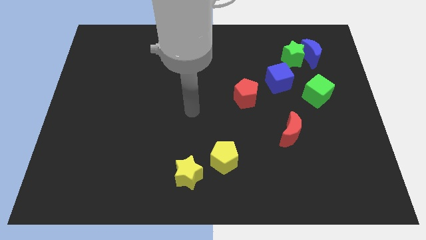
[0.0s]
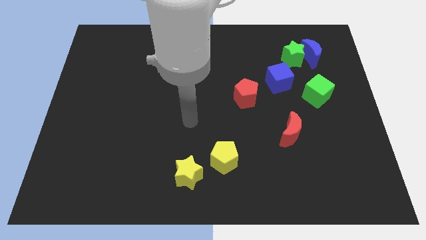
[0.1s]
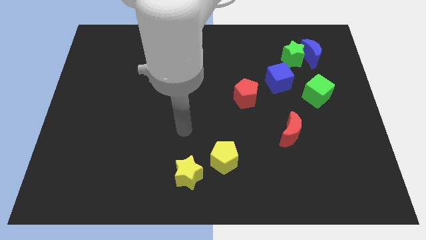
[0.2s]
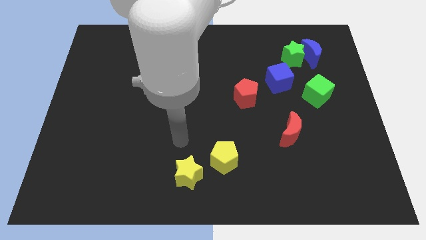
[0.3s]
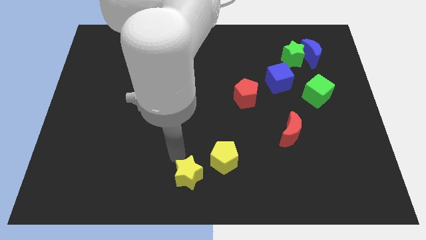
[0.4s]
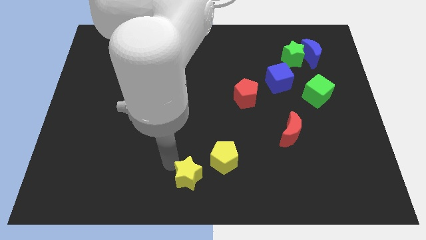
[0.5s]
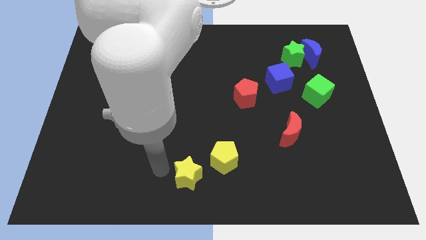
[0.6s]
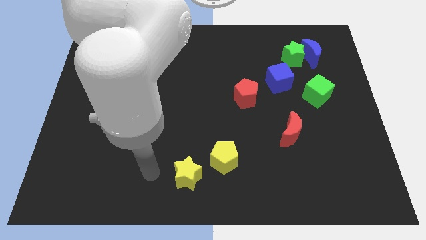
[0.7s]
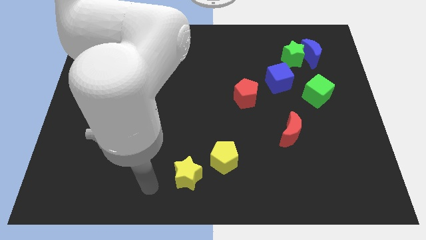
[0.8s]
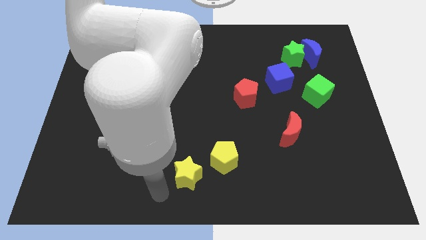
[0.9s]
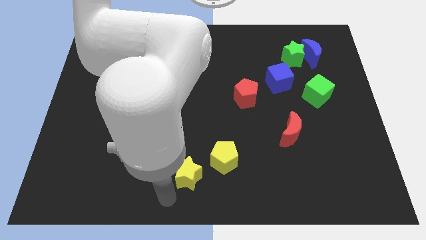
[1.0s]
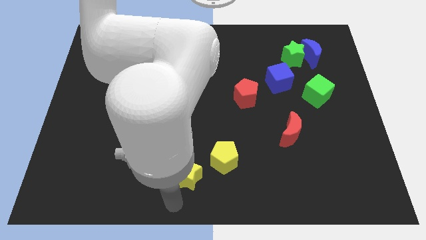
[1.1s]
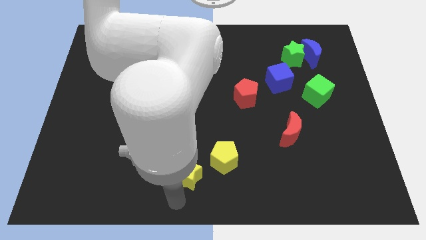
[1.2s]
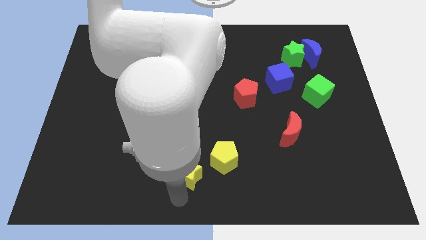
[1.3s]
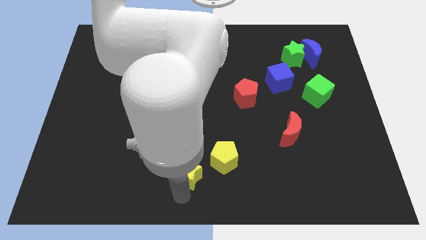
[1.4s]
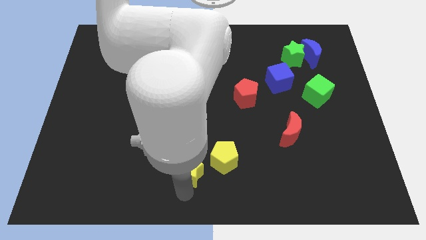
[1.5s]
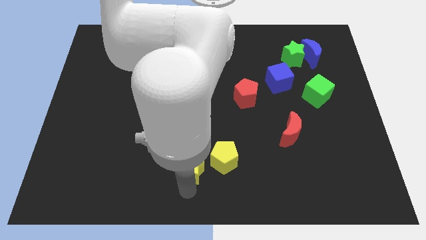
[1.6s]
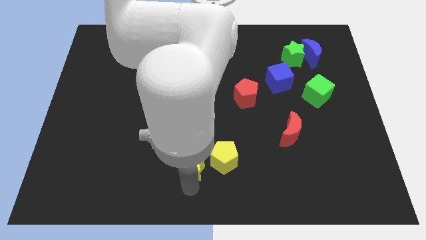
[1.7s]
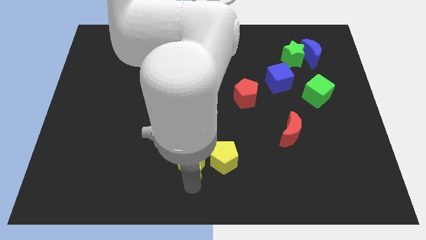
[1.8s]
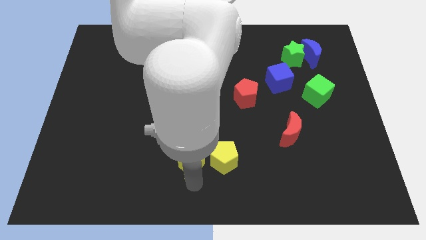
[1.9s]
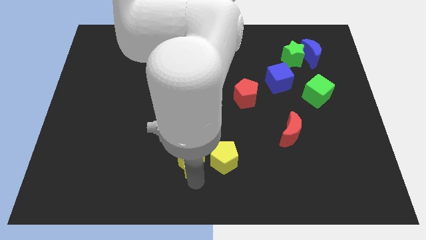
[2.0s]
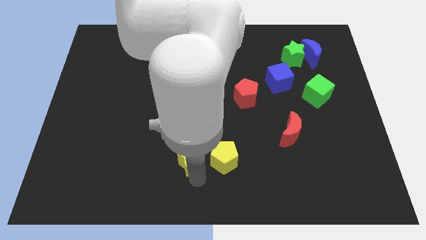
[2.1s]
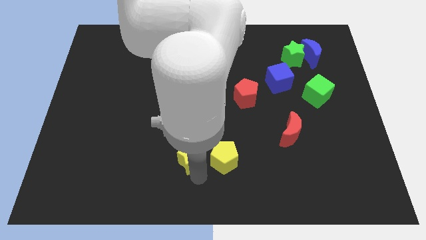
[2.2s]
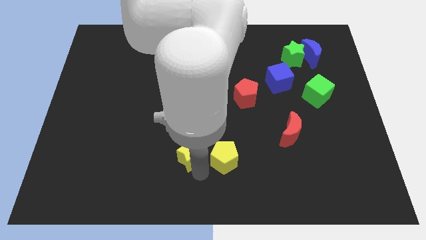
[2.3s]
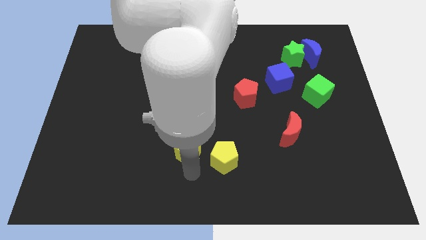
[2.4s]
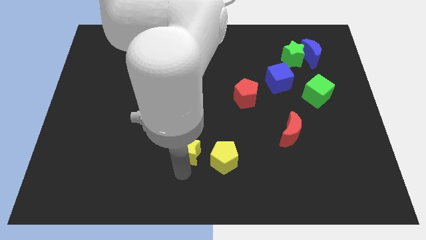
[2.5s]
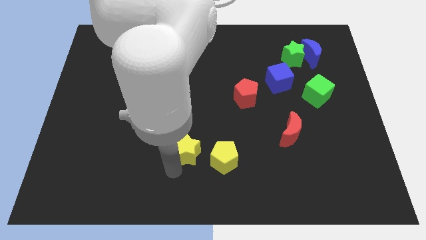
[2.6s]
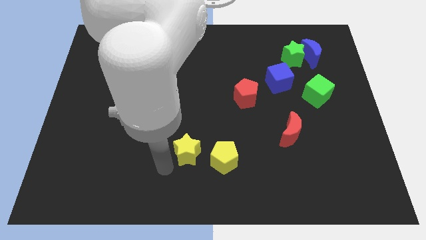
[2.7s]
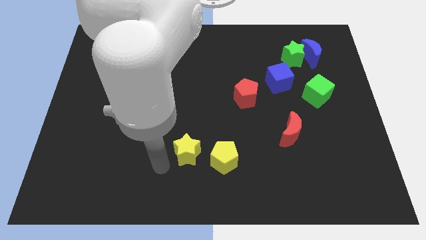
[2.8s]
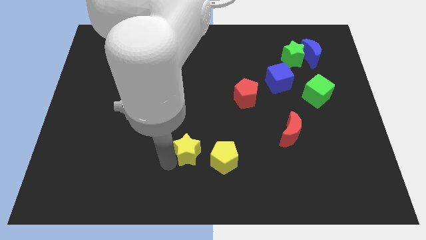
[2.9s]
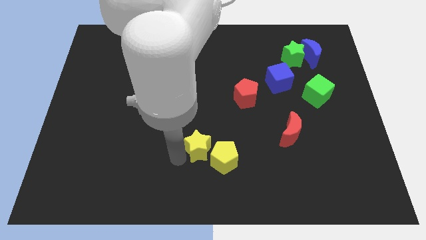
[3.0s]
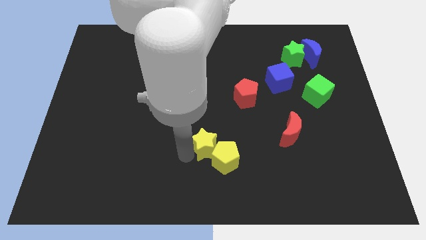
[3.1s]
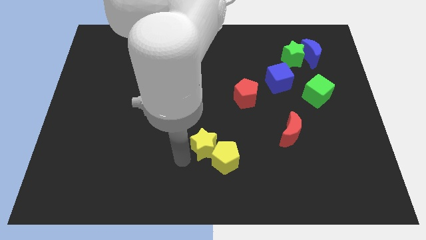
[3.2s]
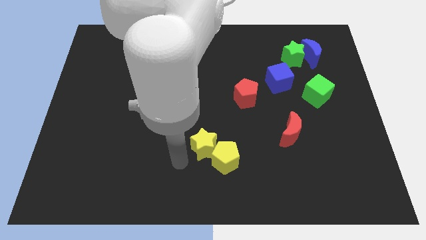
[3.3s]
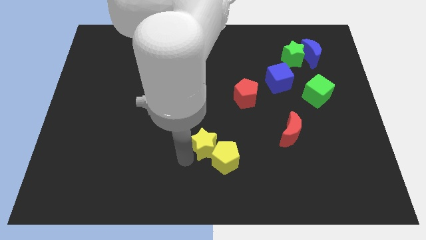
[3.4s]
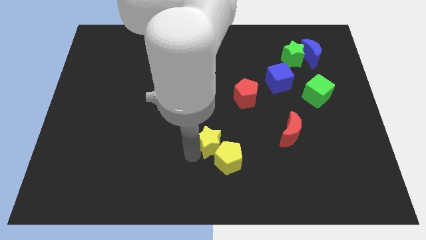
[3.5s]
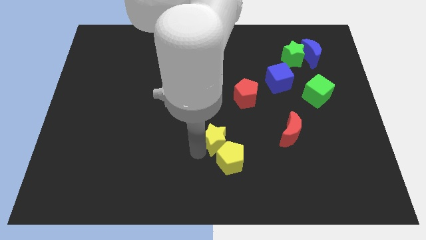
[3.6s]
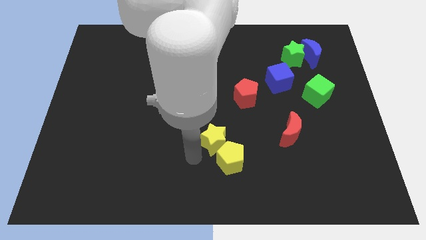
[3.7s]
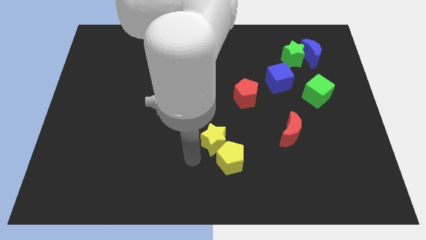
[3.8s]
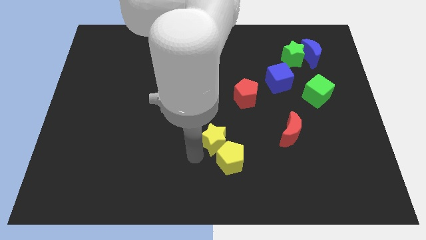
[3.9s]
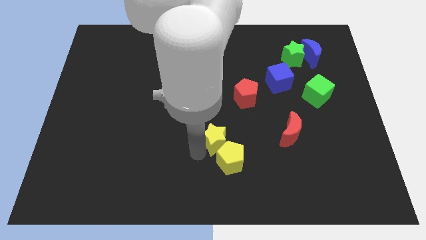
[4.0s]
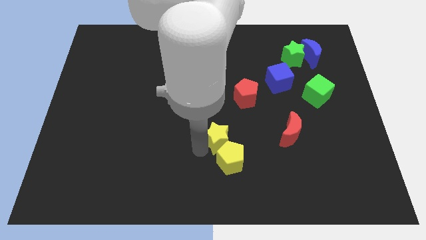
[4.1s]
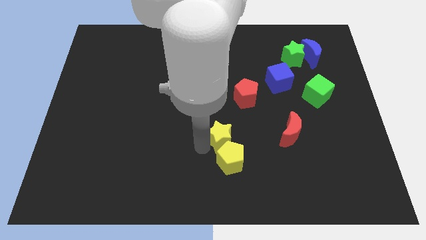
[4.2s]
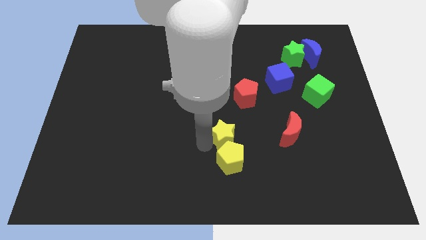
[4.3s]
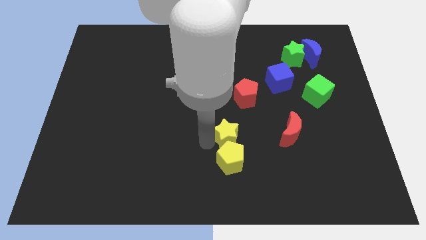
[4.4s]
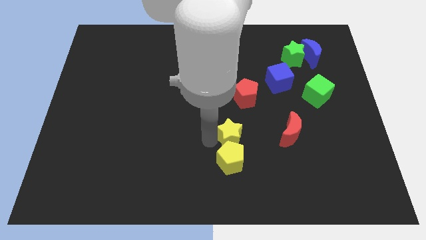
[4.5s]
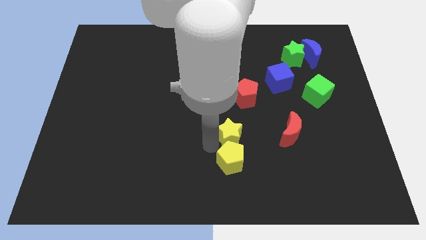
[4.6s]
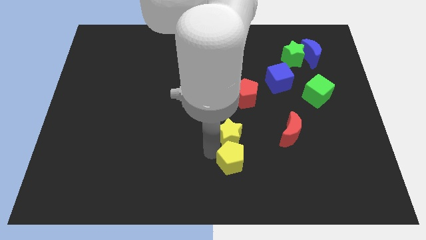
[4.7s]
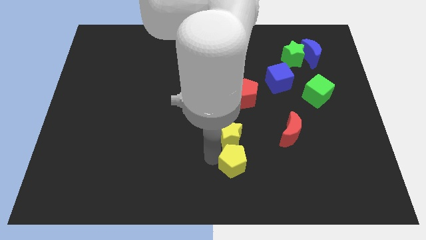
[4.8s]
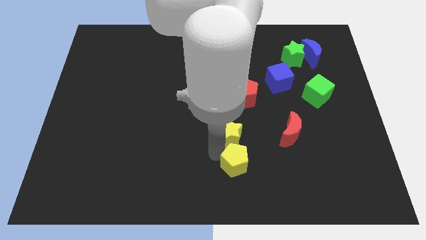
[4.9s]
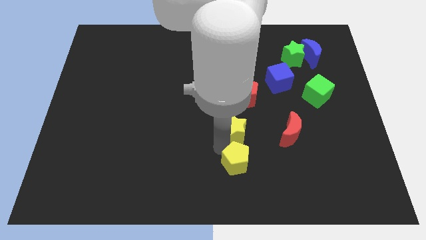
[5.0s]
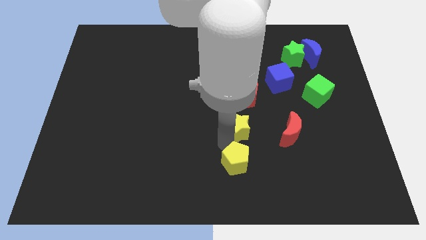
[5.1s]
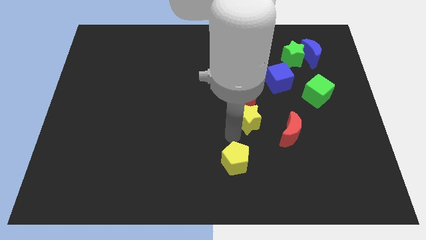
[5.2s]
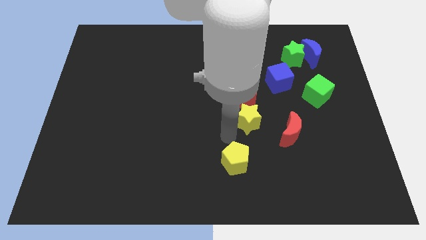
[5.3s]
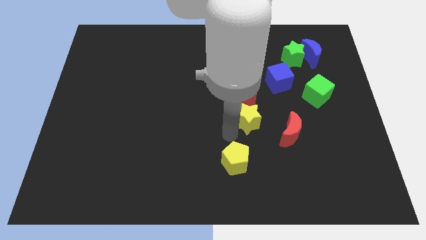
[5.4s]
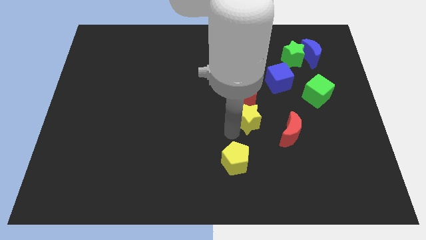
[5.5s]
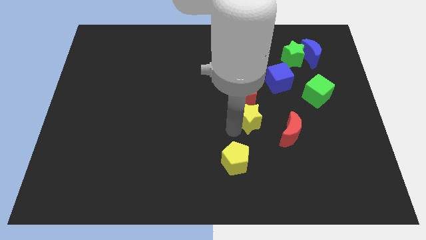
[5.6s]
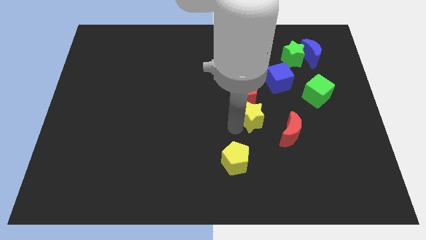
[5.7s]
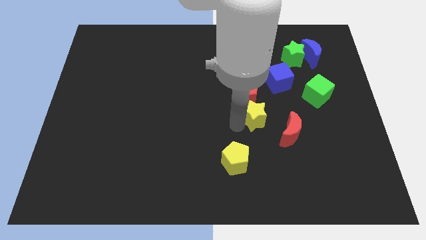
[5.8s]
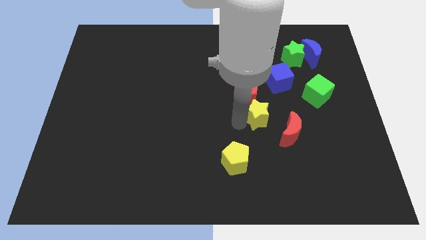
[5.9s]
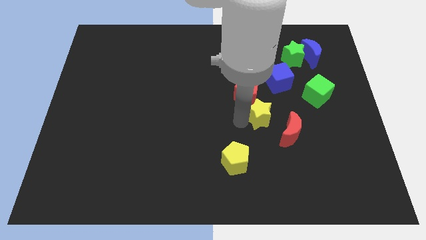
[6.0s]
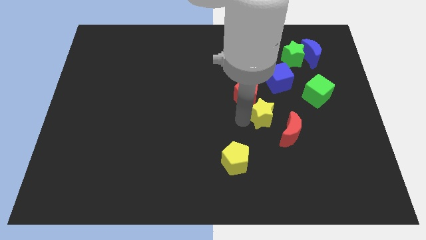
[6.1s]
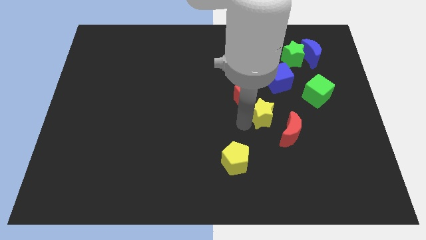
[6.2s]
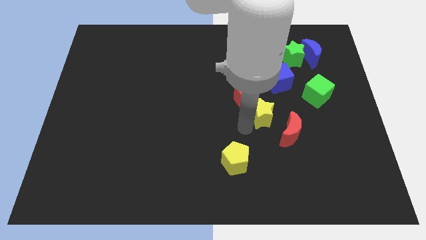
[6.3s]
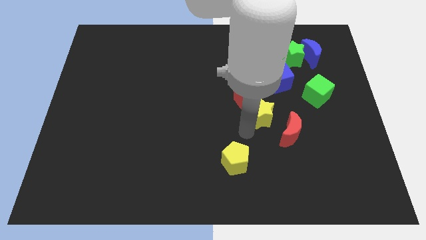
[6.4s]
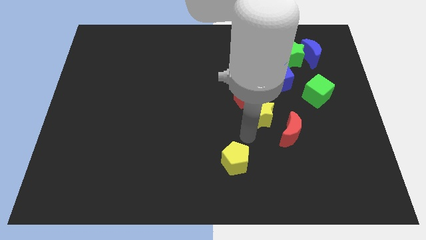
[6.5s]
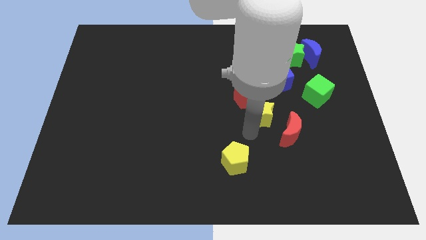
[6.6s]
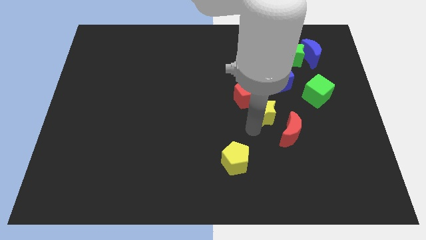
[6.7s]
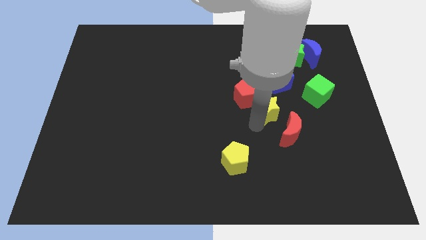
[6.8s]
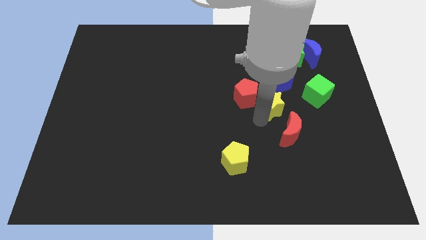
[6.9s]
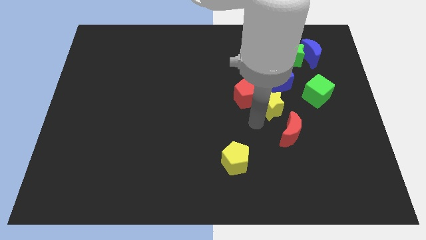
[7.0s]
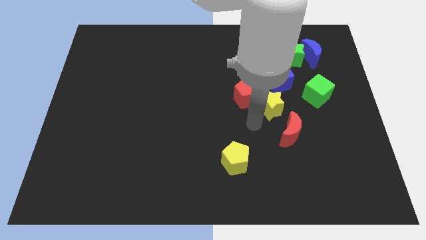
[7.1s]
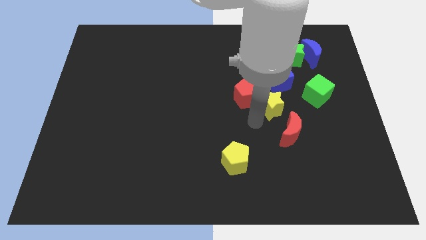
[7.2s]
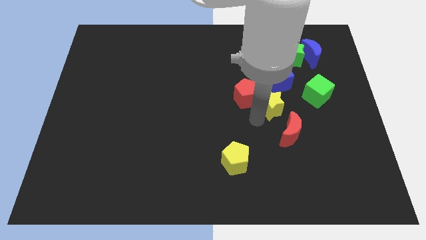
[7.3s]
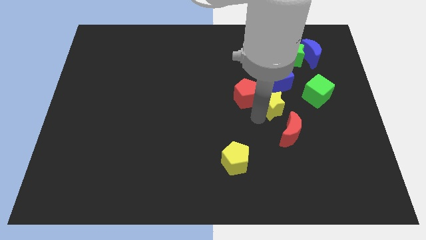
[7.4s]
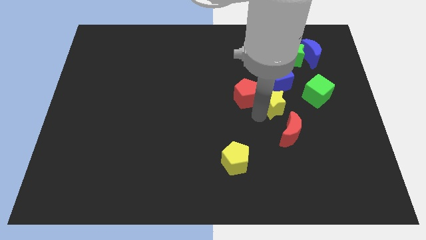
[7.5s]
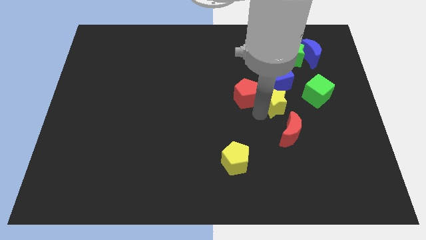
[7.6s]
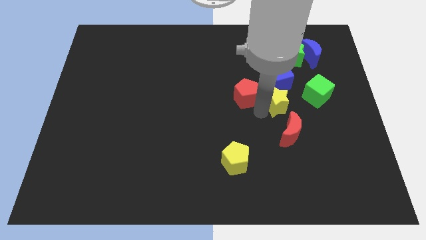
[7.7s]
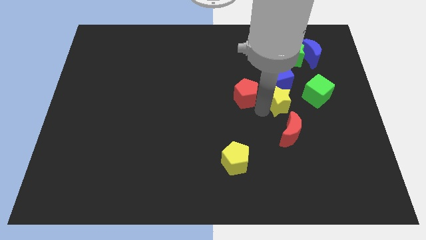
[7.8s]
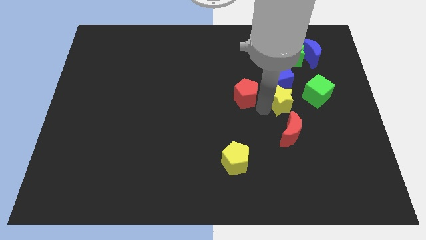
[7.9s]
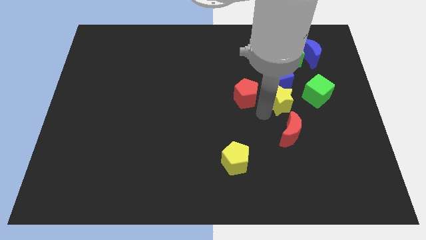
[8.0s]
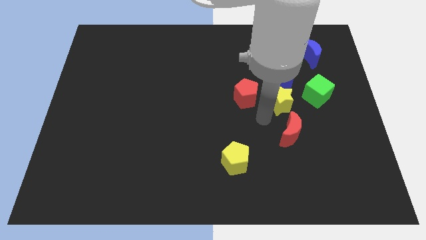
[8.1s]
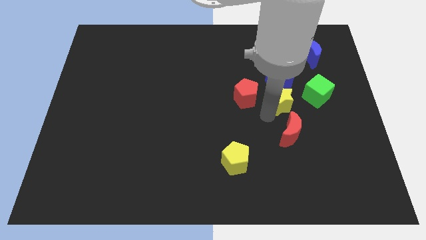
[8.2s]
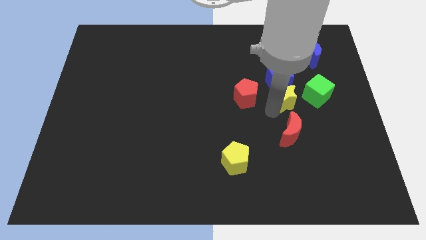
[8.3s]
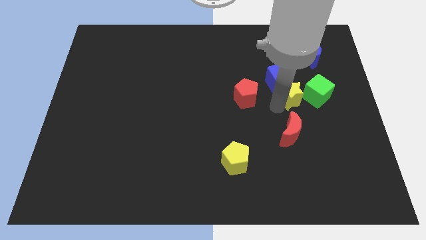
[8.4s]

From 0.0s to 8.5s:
move the yellow star below the green star
